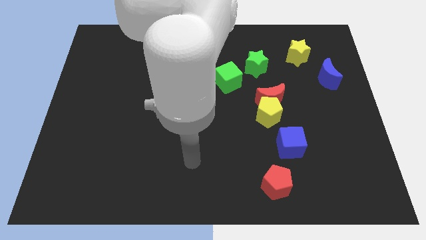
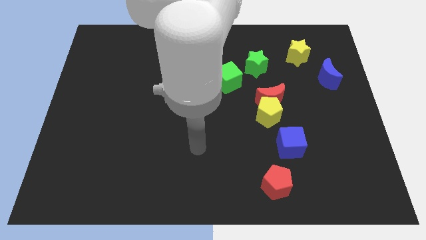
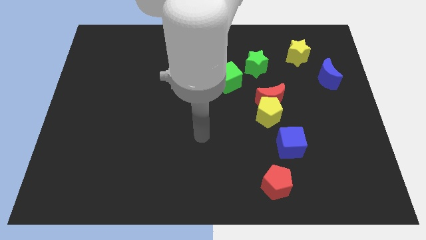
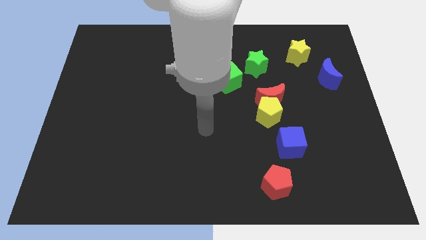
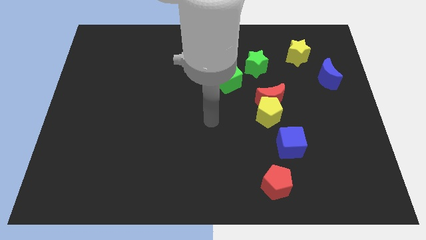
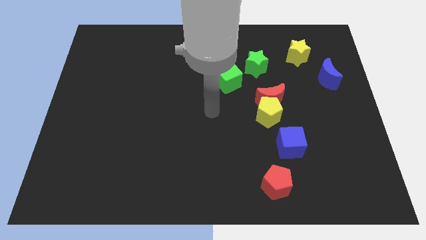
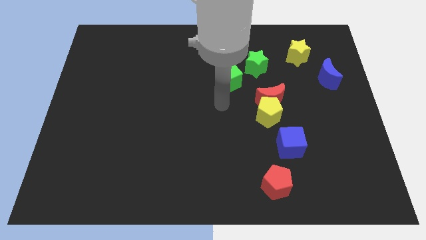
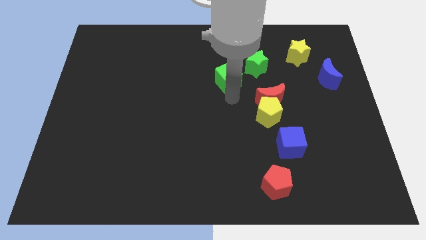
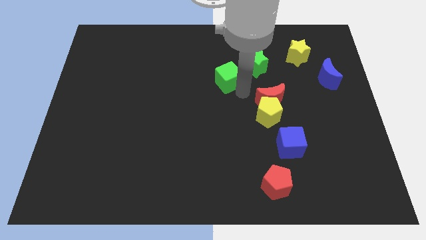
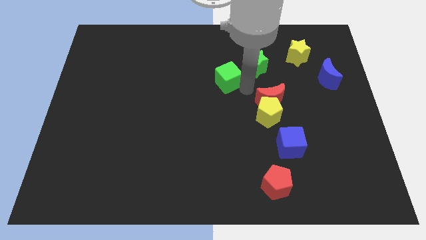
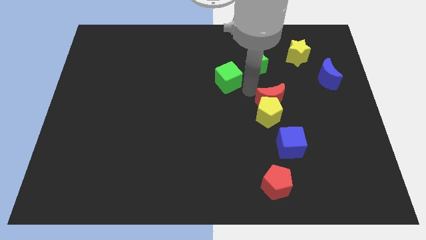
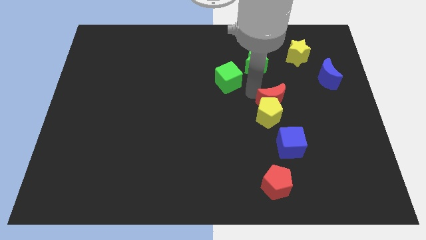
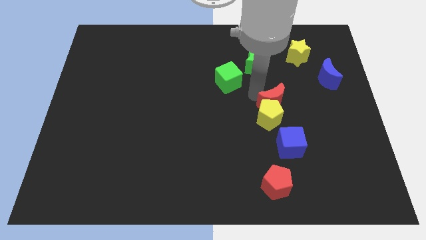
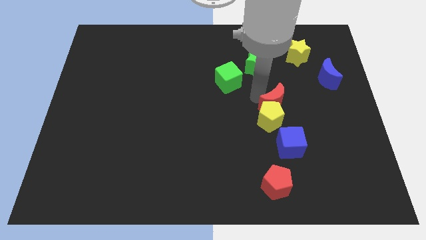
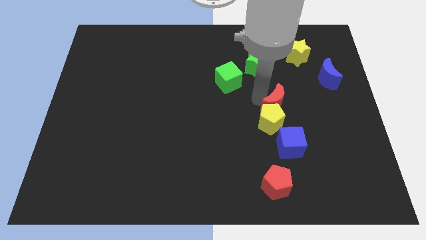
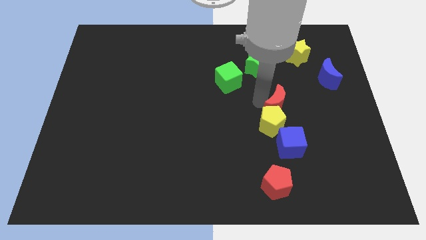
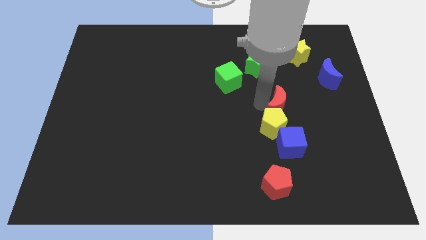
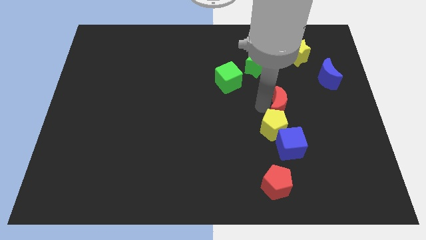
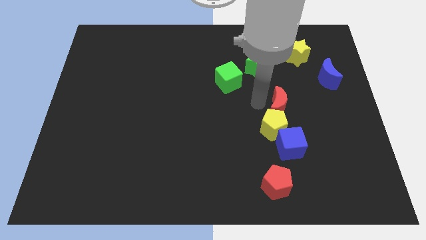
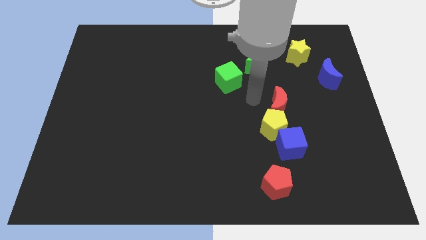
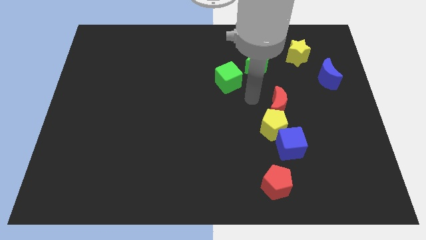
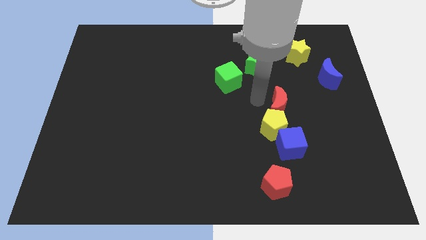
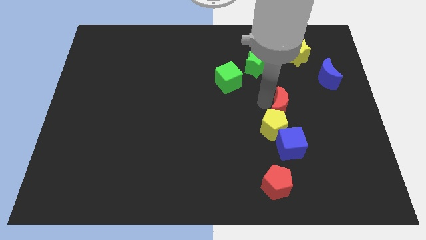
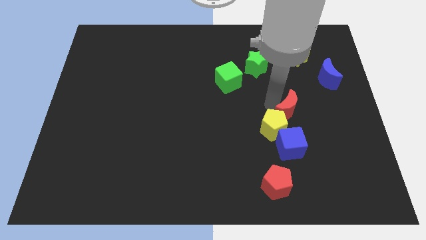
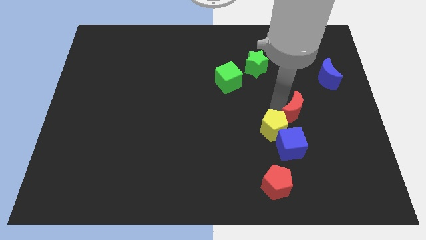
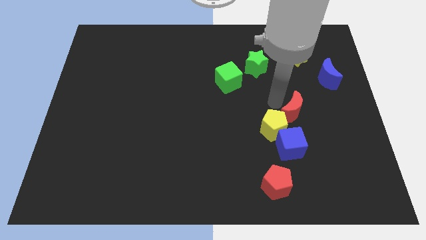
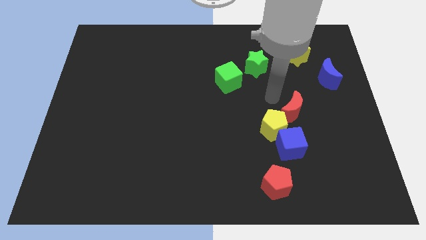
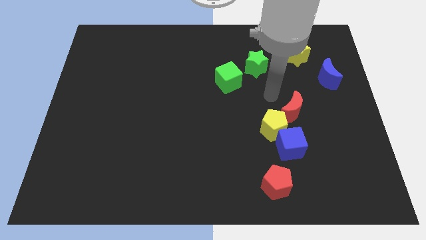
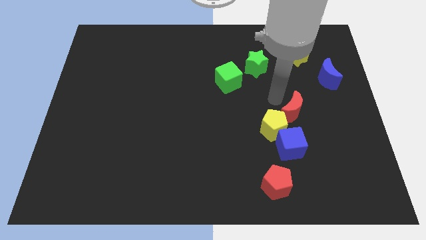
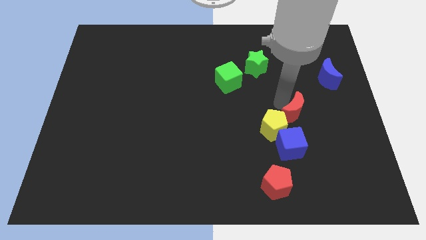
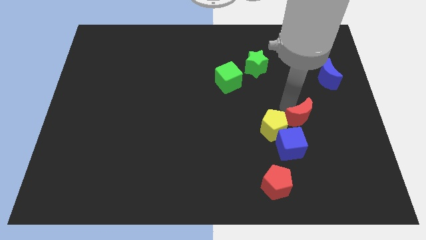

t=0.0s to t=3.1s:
push the red moon a bit downwards and to the right diagonally

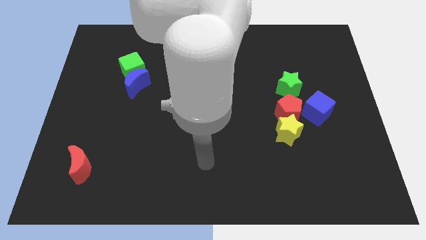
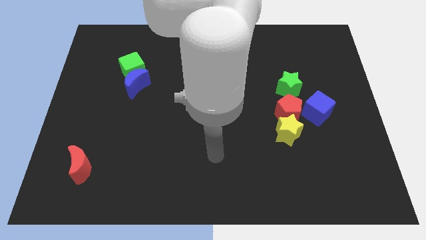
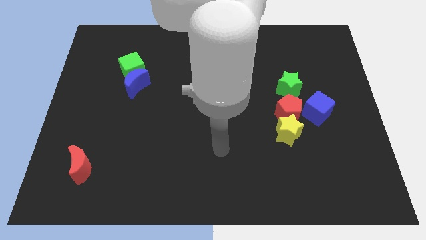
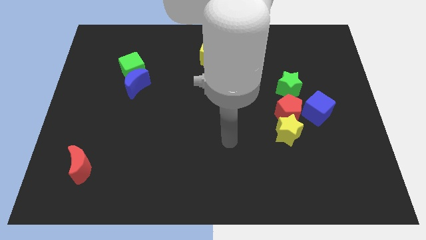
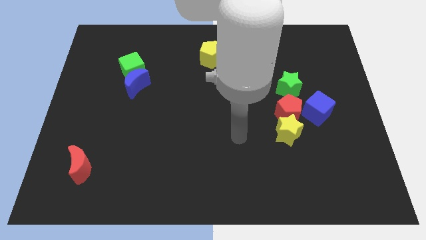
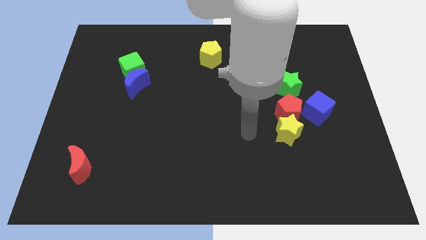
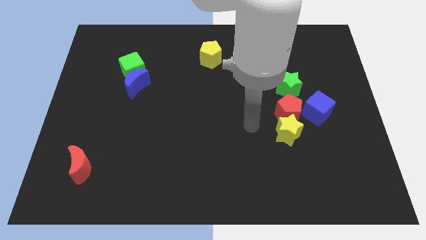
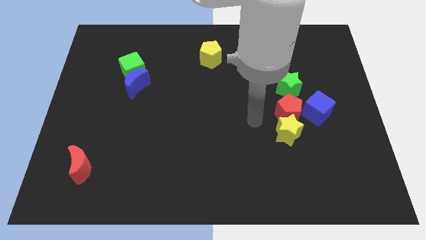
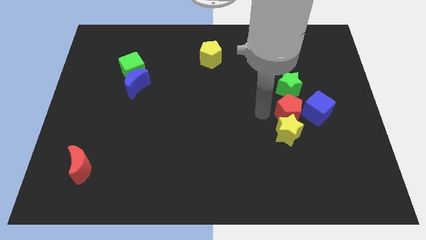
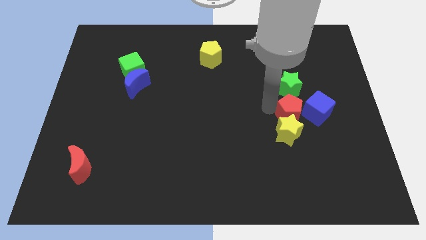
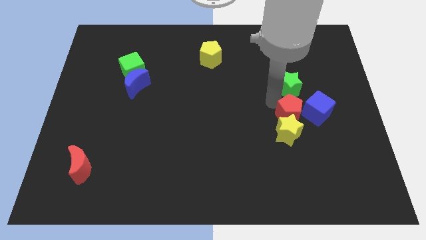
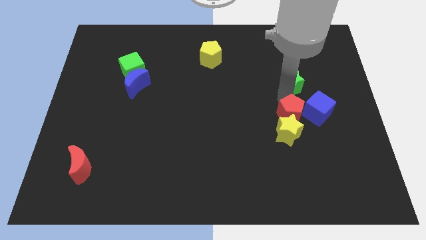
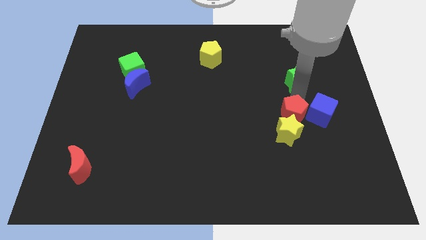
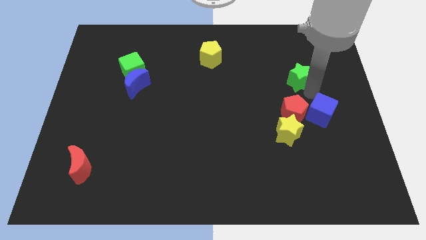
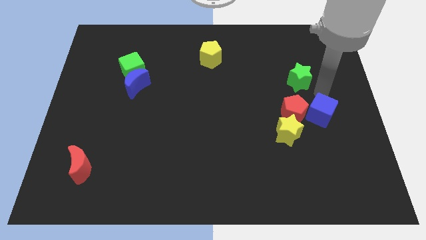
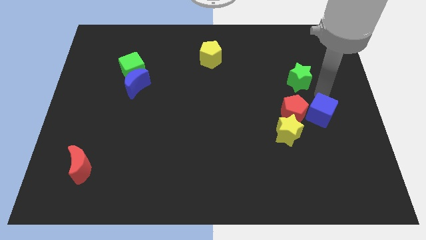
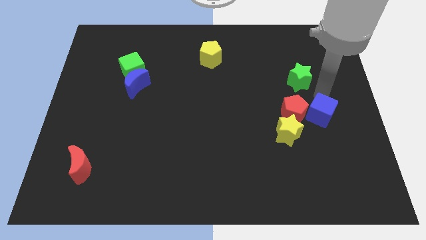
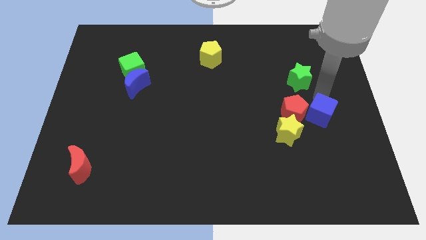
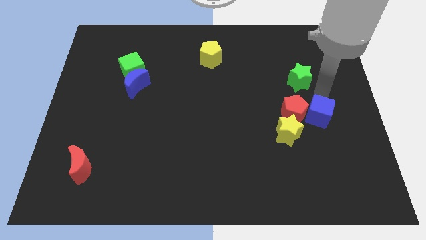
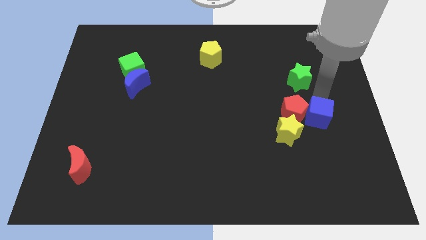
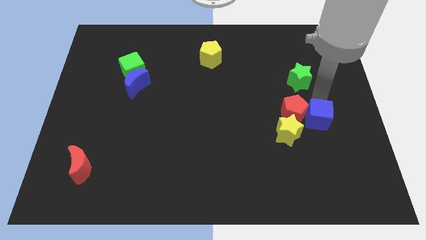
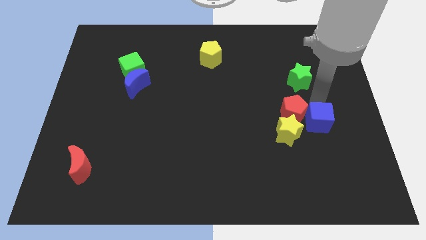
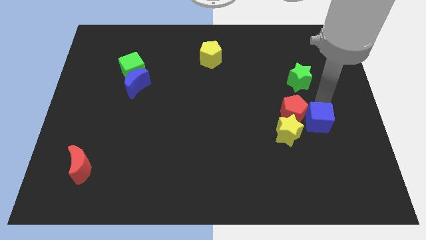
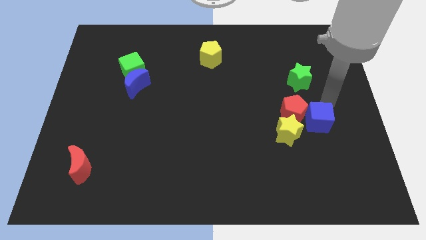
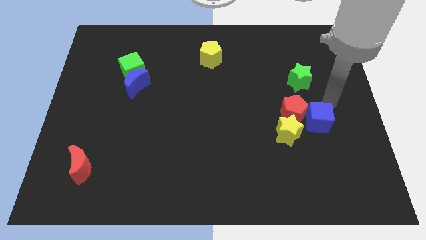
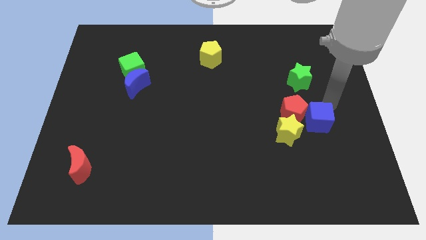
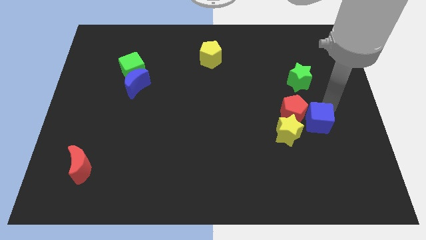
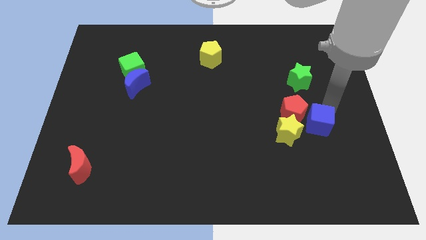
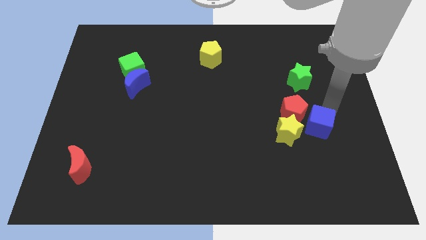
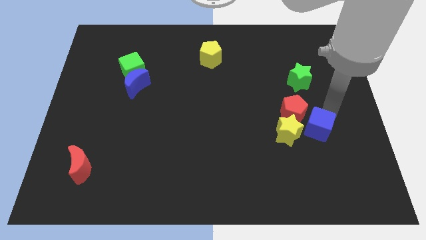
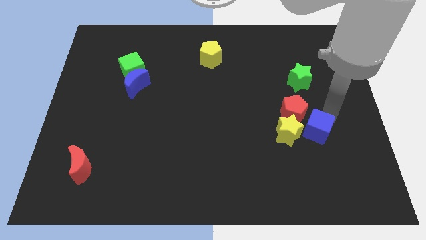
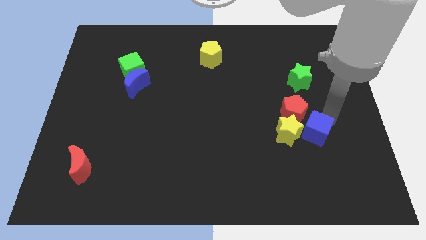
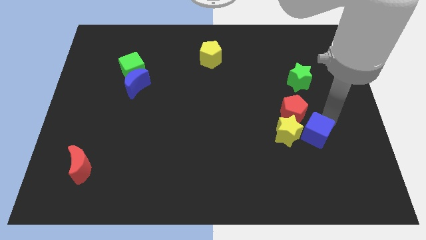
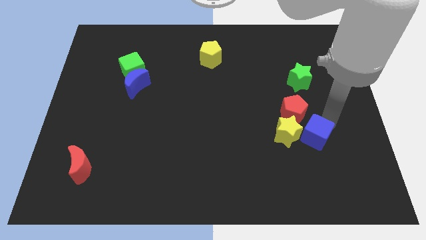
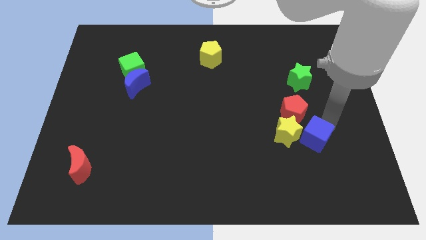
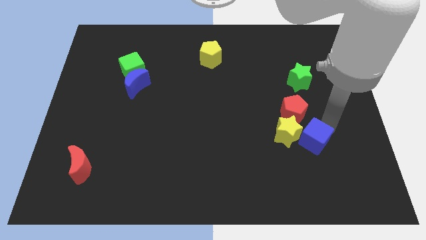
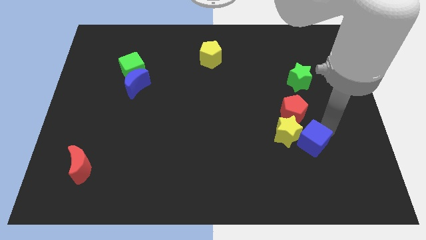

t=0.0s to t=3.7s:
slightly move the blue cube down and to the left diagonally

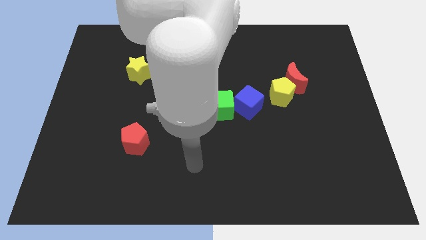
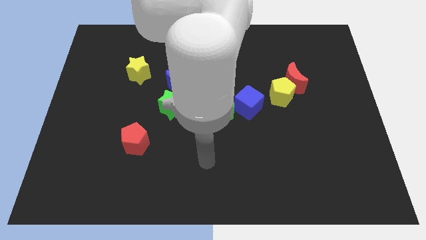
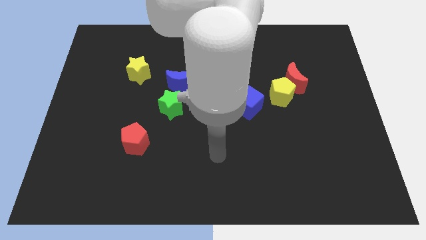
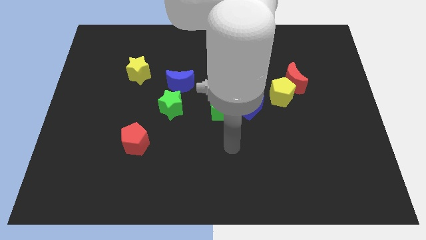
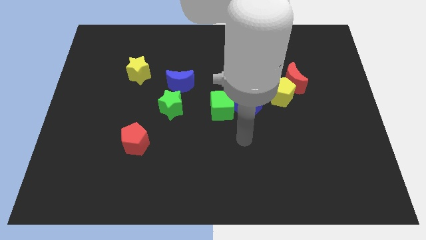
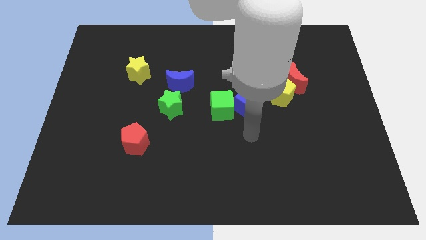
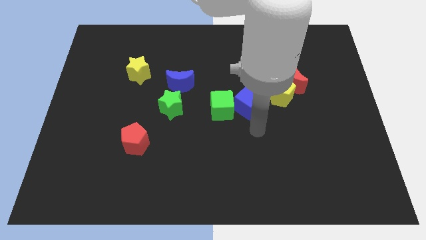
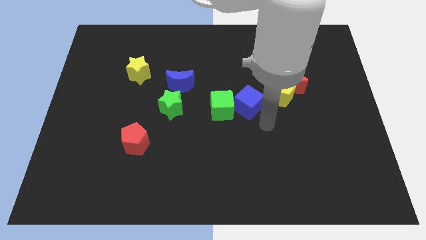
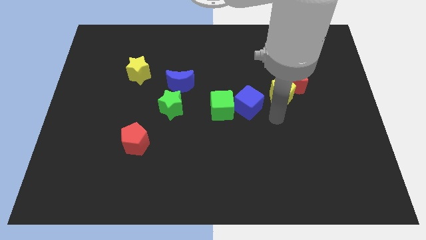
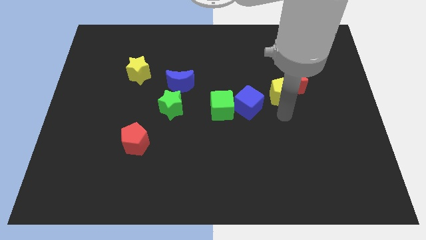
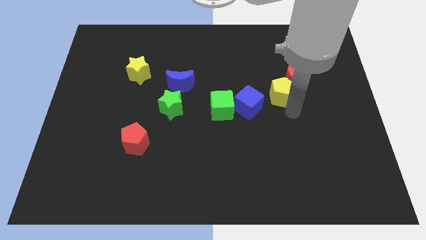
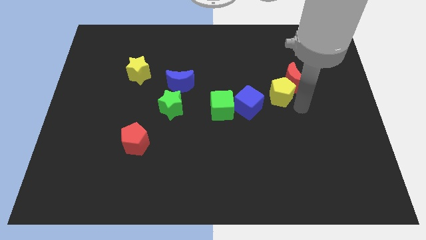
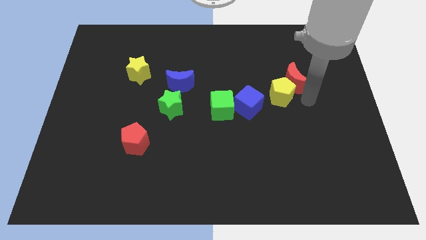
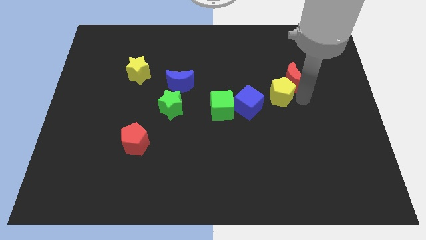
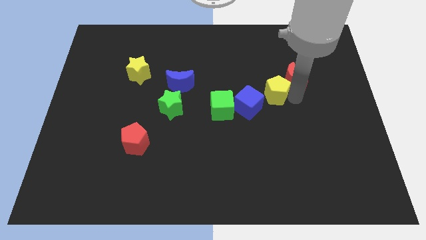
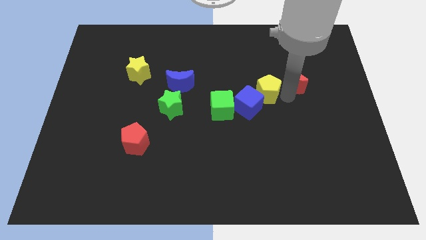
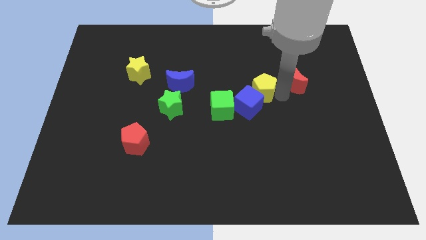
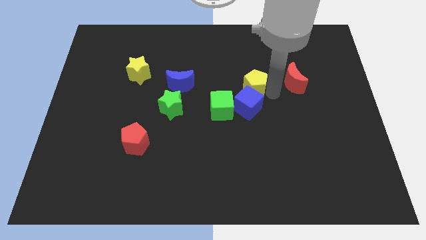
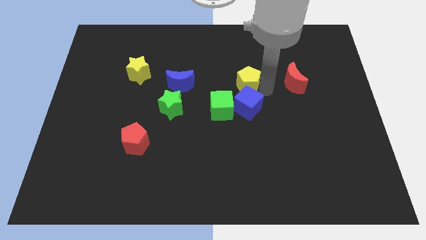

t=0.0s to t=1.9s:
slightly push the yellow pentagon to the left
